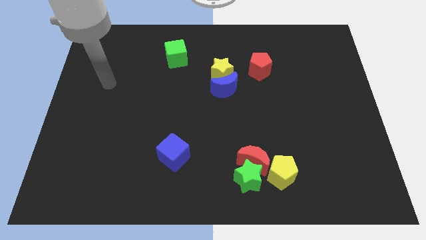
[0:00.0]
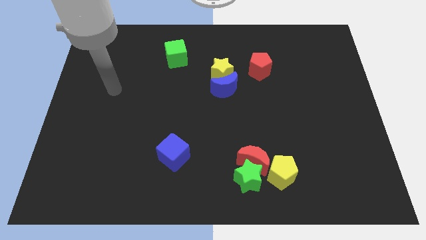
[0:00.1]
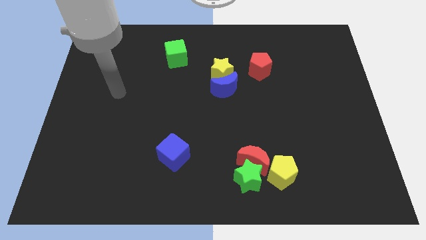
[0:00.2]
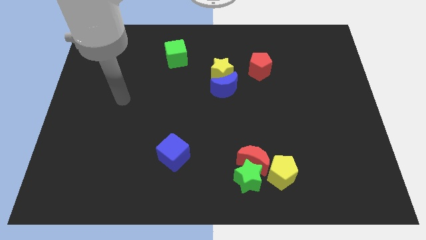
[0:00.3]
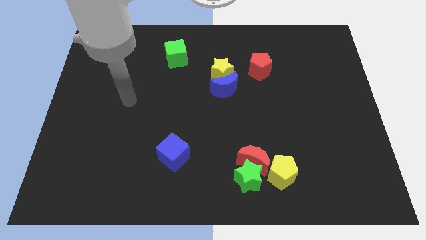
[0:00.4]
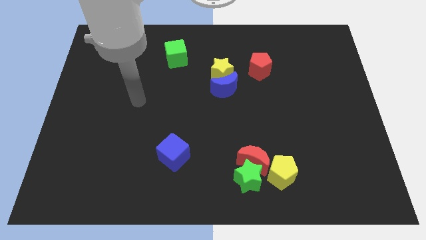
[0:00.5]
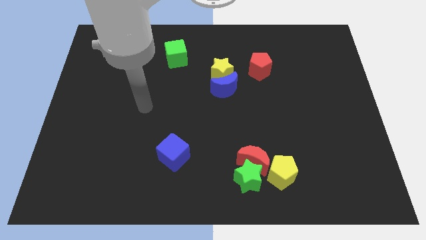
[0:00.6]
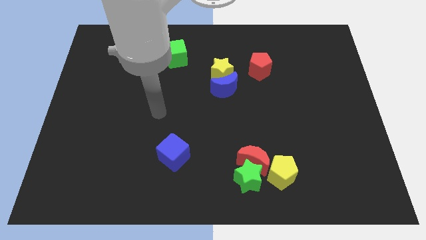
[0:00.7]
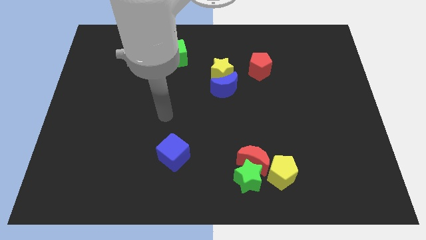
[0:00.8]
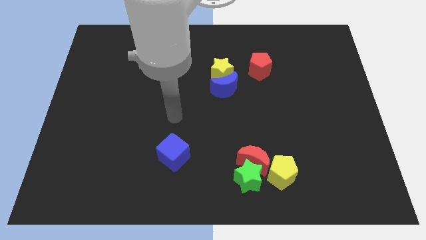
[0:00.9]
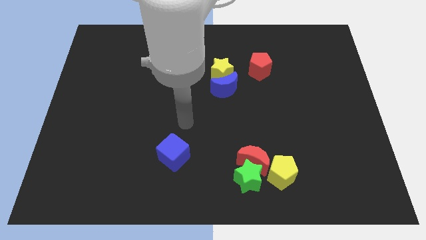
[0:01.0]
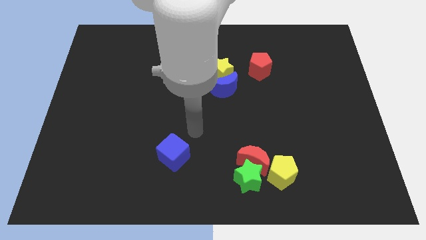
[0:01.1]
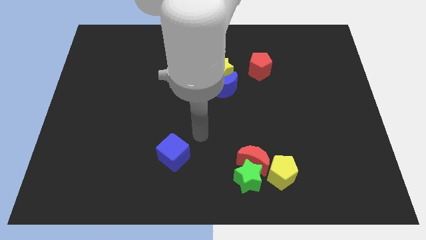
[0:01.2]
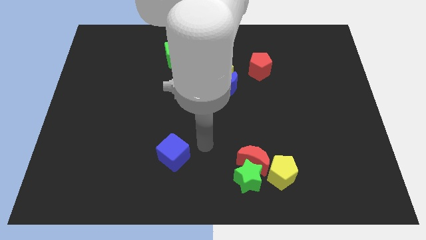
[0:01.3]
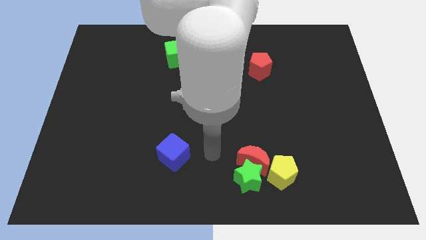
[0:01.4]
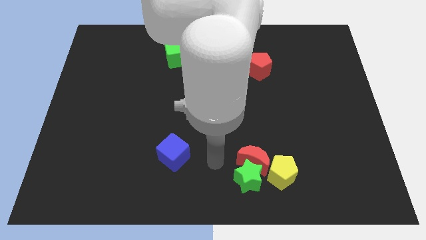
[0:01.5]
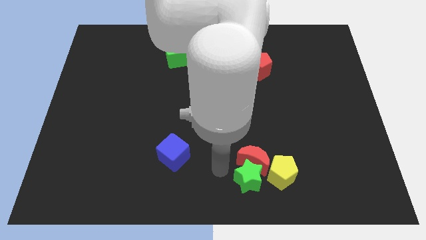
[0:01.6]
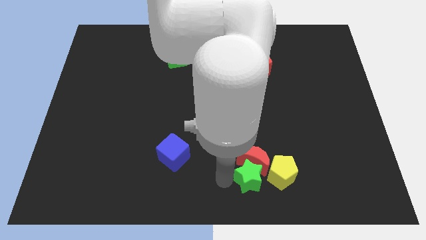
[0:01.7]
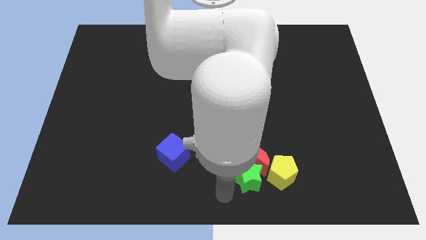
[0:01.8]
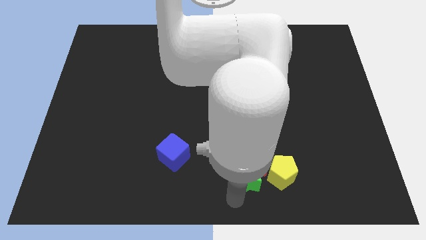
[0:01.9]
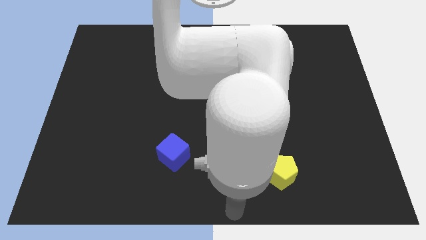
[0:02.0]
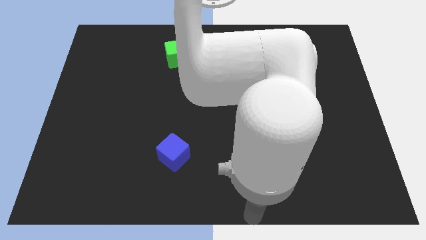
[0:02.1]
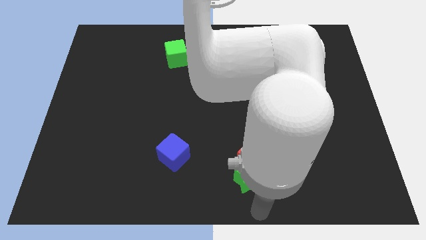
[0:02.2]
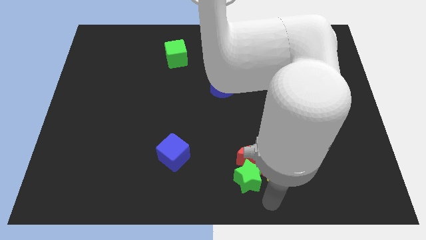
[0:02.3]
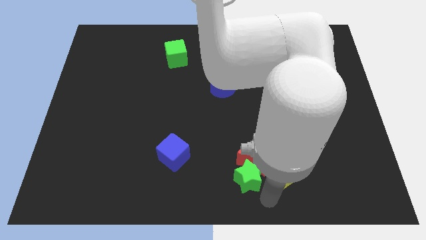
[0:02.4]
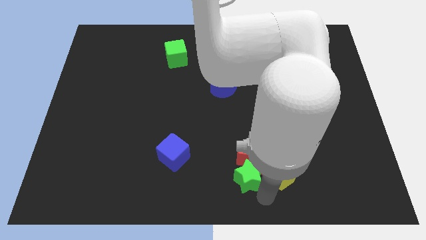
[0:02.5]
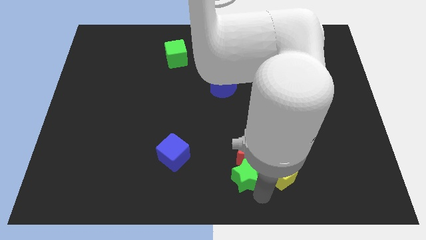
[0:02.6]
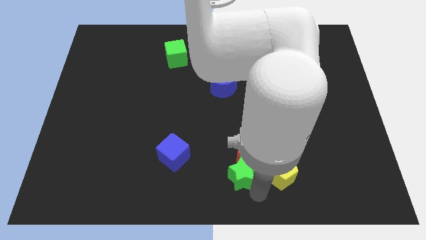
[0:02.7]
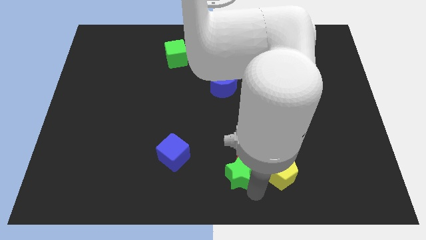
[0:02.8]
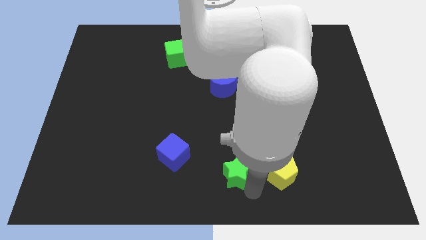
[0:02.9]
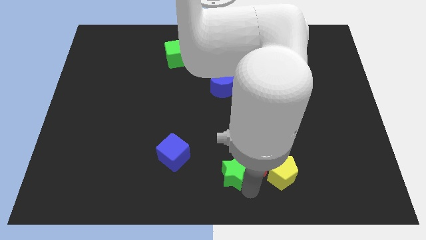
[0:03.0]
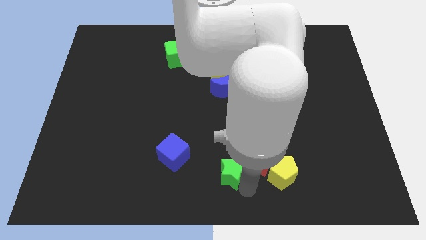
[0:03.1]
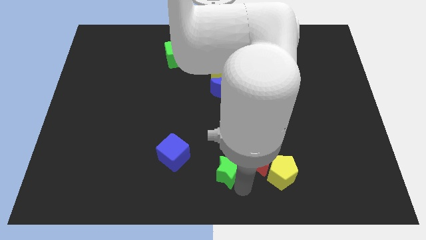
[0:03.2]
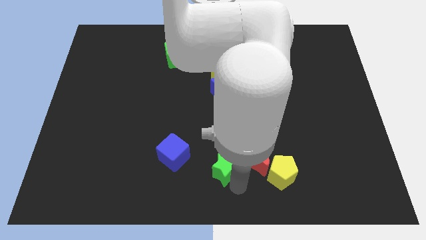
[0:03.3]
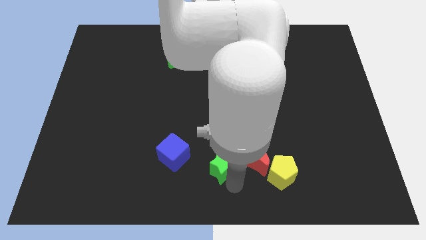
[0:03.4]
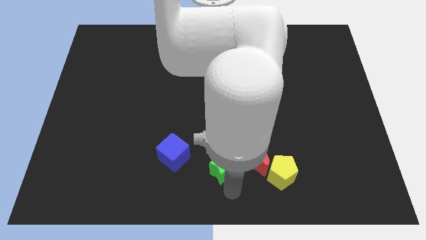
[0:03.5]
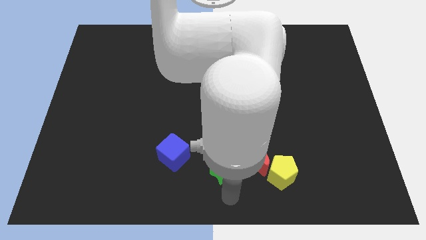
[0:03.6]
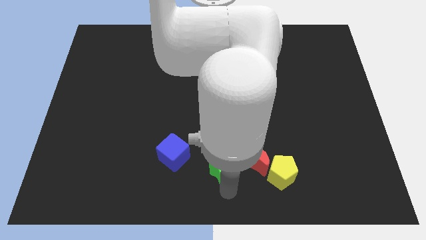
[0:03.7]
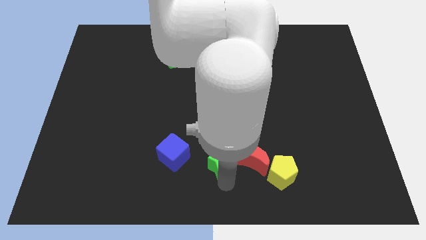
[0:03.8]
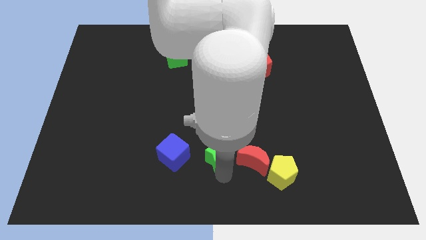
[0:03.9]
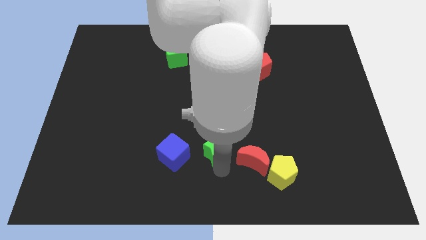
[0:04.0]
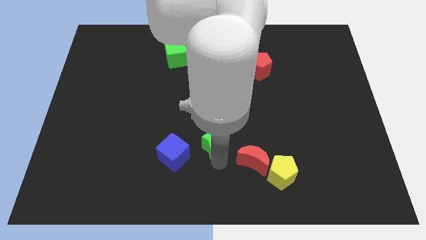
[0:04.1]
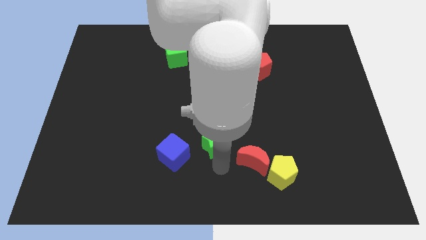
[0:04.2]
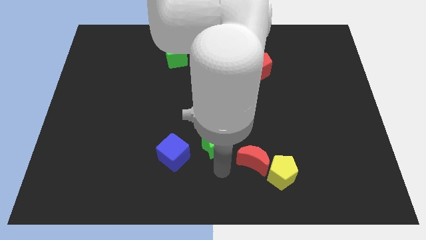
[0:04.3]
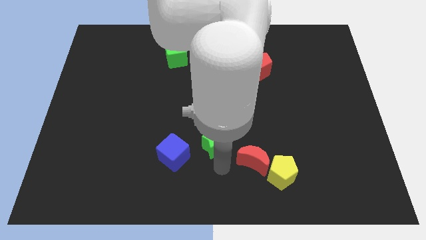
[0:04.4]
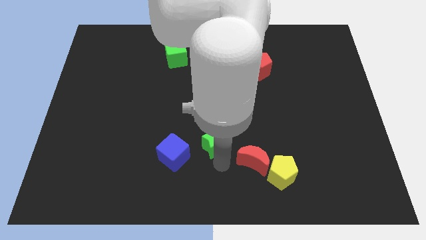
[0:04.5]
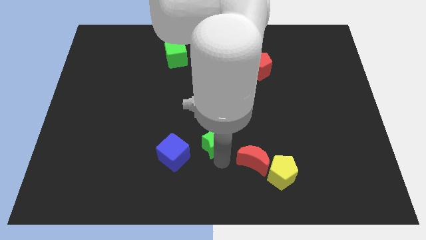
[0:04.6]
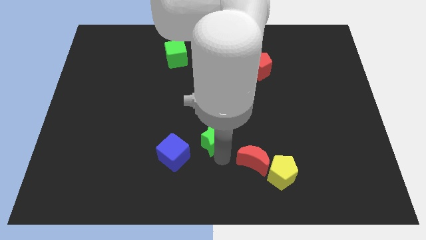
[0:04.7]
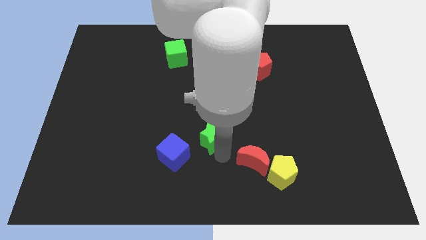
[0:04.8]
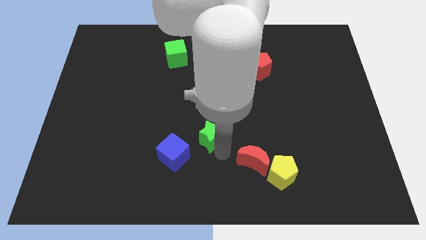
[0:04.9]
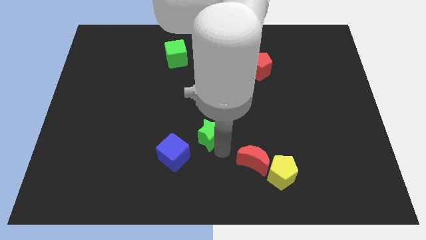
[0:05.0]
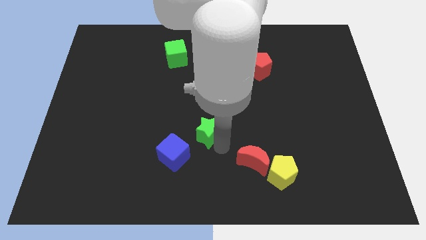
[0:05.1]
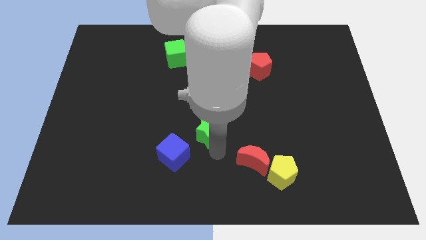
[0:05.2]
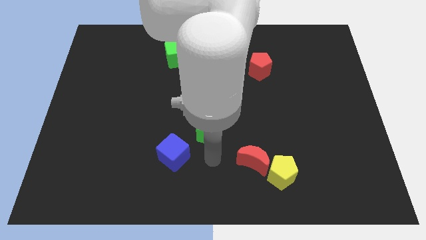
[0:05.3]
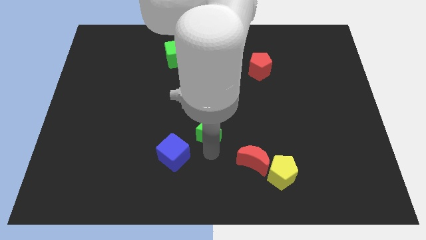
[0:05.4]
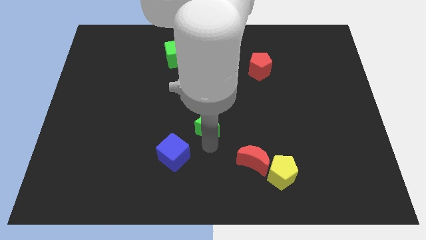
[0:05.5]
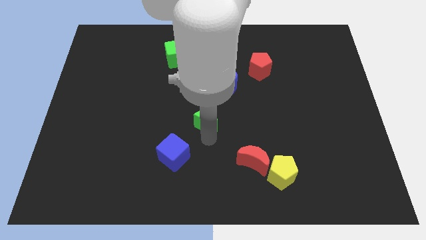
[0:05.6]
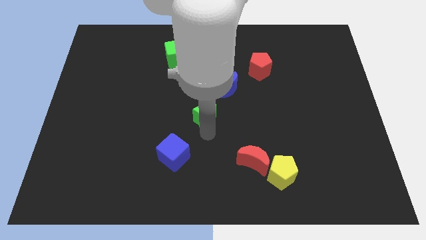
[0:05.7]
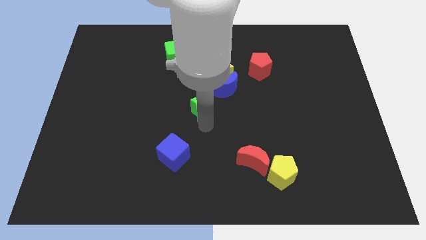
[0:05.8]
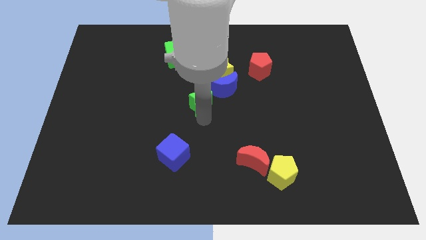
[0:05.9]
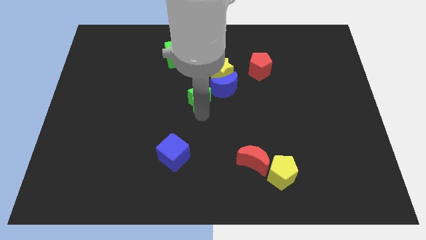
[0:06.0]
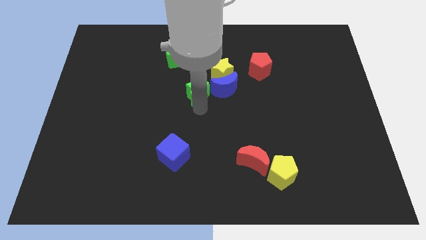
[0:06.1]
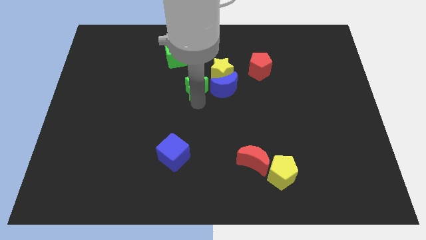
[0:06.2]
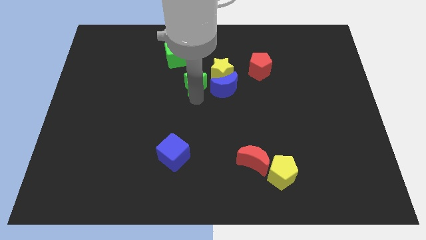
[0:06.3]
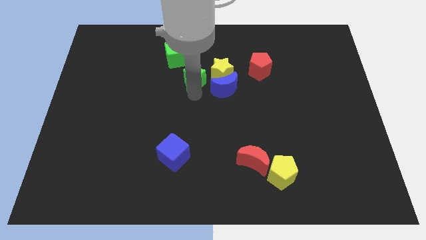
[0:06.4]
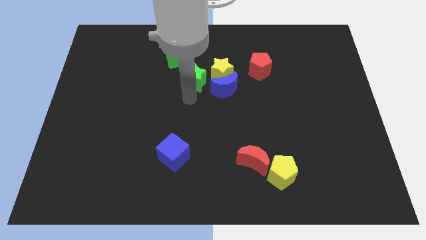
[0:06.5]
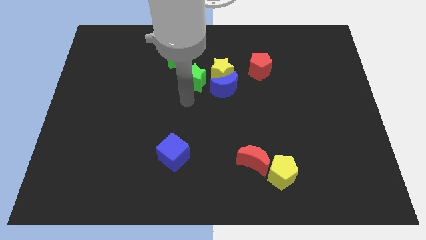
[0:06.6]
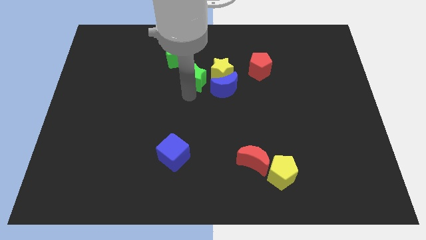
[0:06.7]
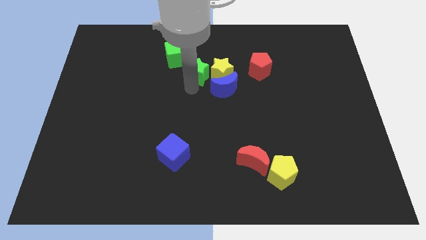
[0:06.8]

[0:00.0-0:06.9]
push the green star to the top left side of the yellow star

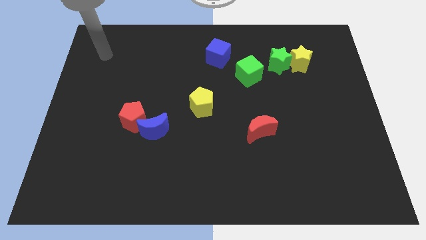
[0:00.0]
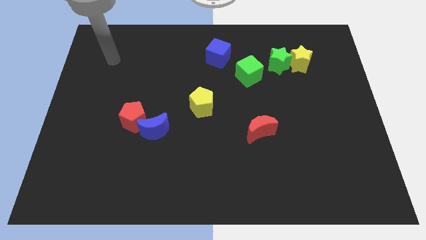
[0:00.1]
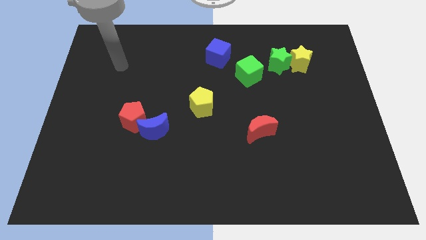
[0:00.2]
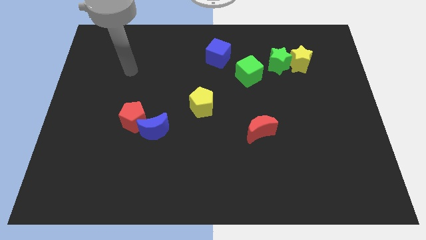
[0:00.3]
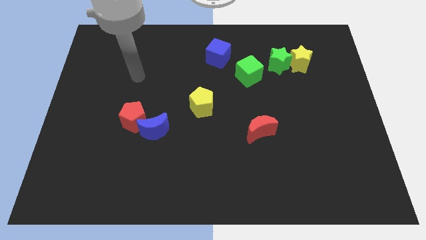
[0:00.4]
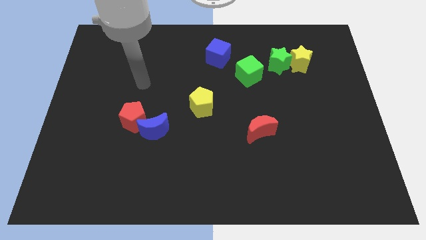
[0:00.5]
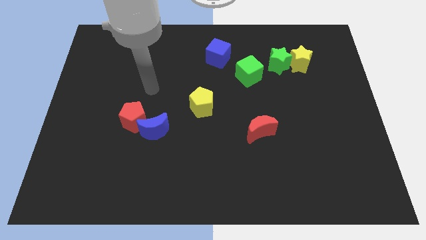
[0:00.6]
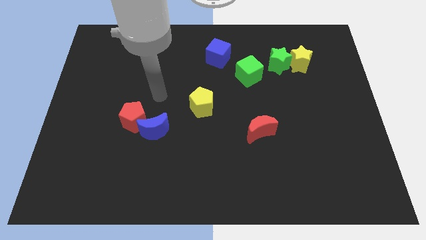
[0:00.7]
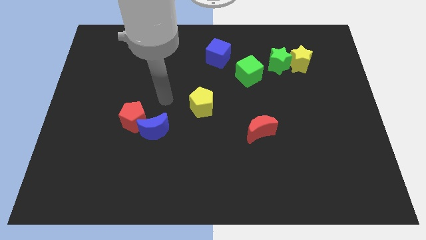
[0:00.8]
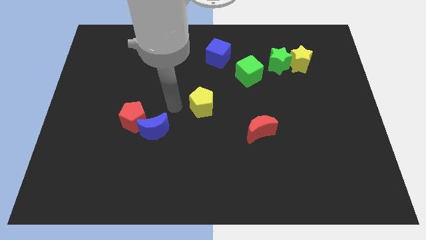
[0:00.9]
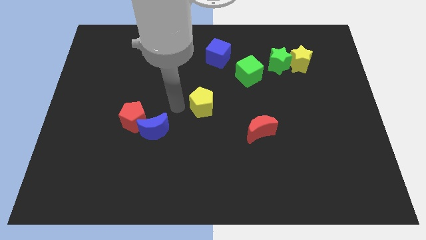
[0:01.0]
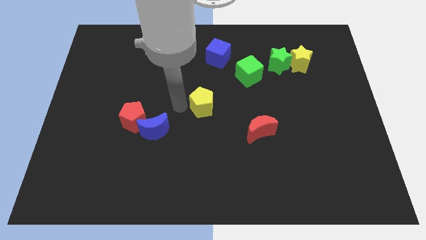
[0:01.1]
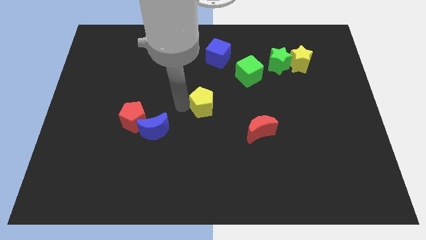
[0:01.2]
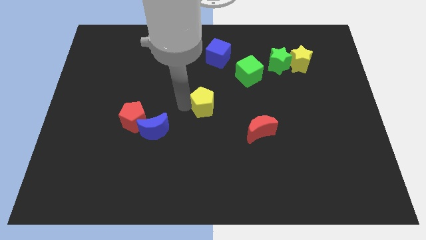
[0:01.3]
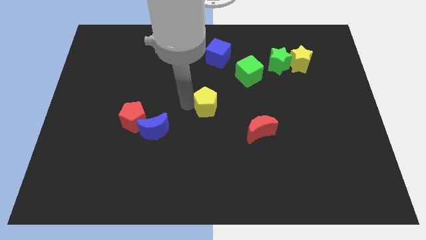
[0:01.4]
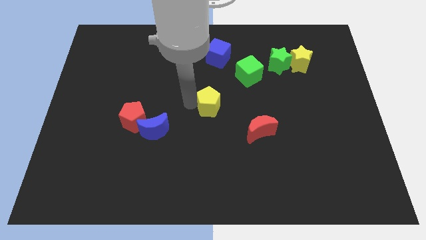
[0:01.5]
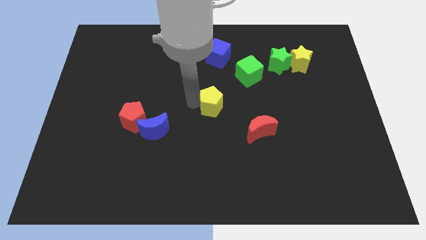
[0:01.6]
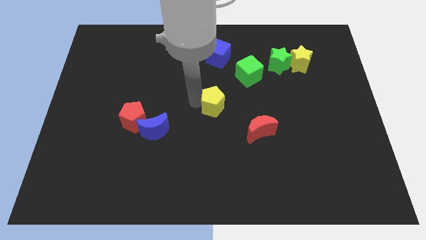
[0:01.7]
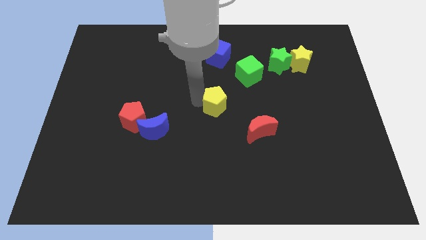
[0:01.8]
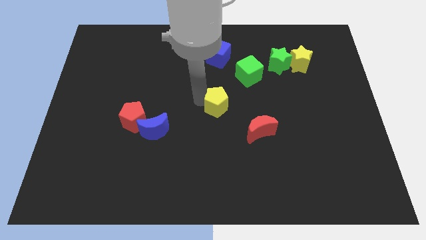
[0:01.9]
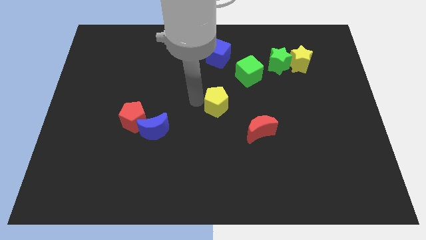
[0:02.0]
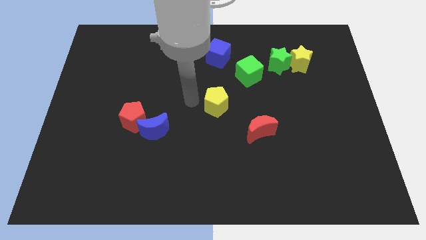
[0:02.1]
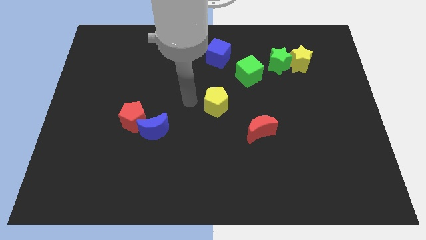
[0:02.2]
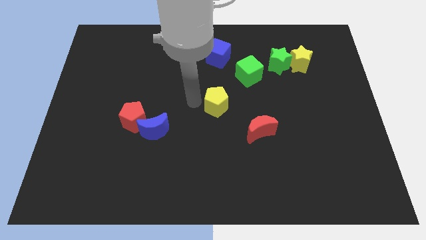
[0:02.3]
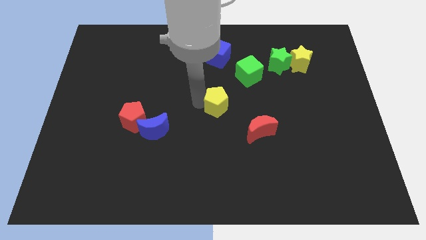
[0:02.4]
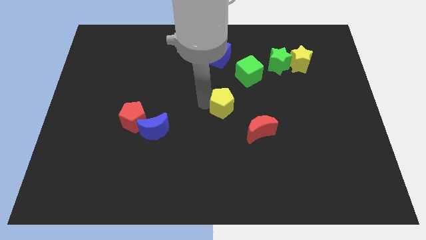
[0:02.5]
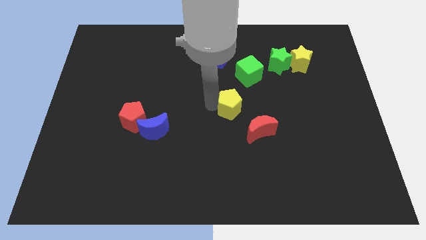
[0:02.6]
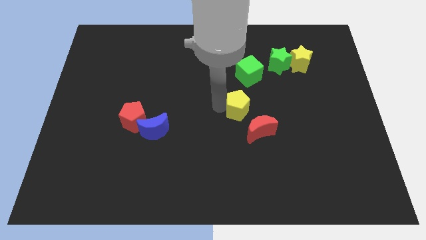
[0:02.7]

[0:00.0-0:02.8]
put the yellow pentagon to the bottom side of the green cube
